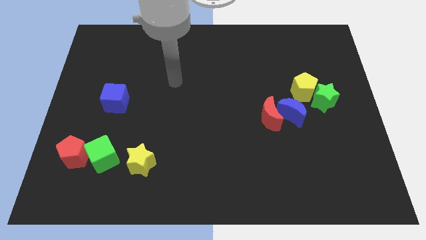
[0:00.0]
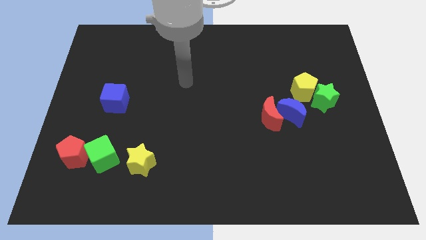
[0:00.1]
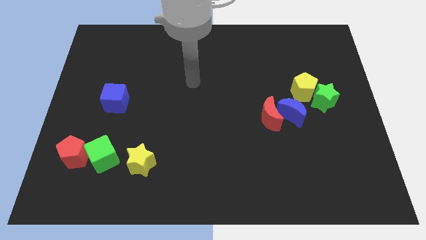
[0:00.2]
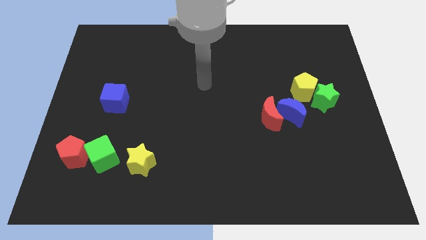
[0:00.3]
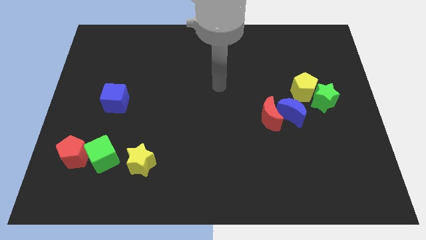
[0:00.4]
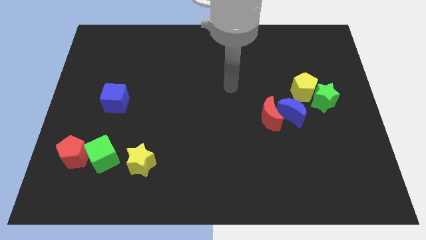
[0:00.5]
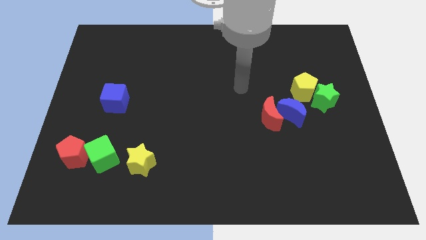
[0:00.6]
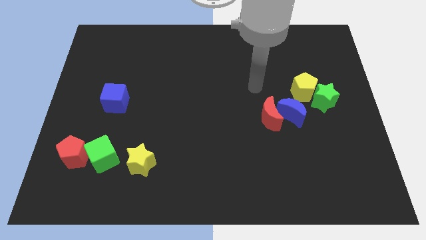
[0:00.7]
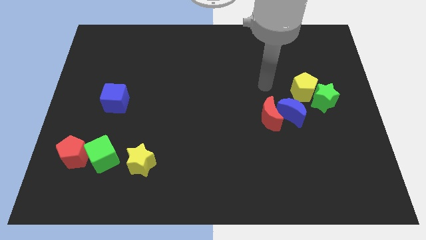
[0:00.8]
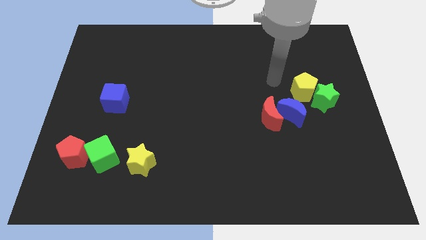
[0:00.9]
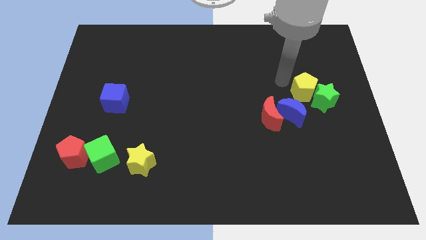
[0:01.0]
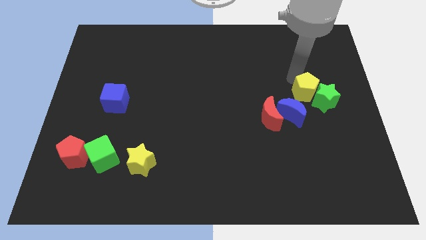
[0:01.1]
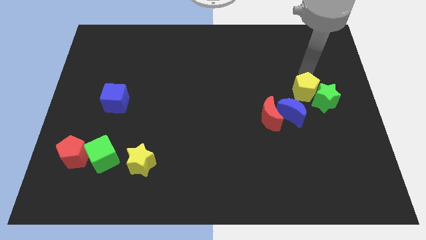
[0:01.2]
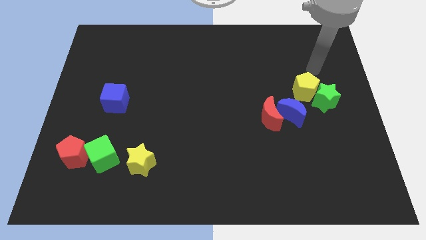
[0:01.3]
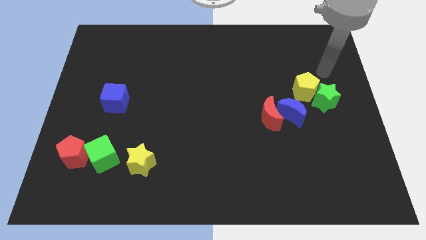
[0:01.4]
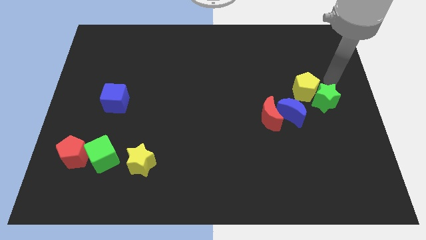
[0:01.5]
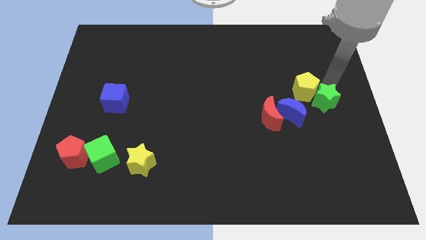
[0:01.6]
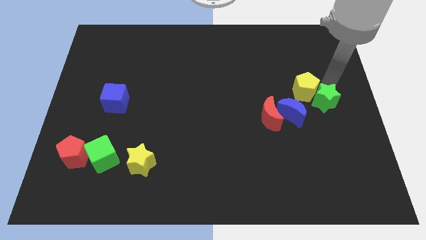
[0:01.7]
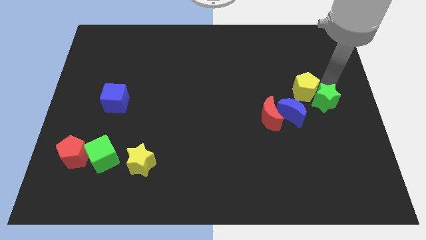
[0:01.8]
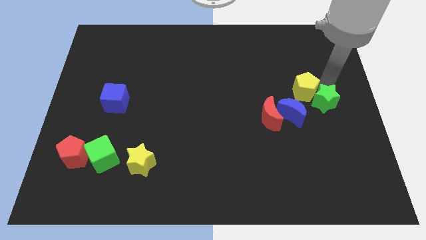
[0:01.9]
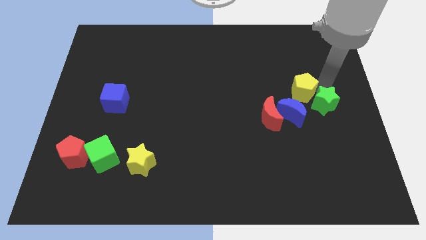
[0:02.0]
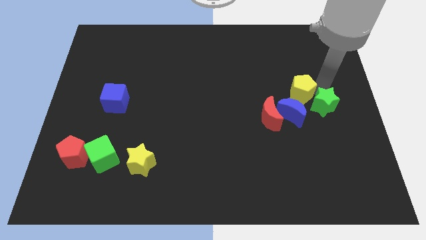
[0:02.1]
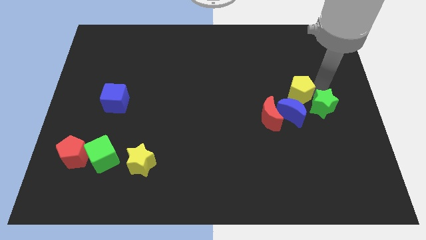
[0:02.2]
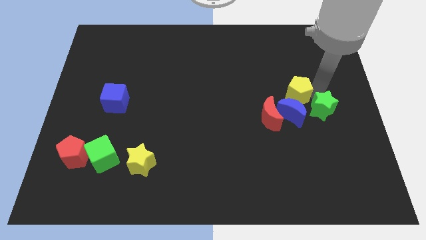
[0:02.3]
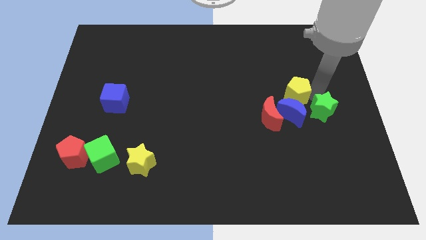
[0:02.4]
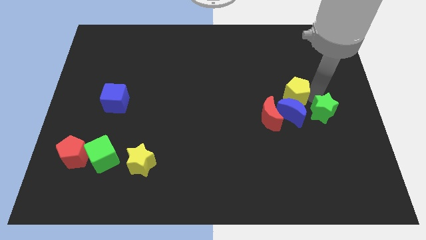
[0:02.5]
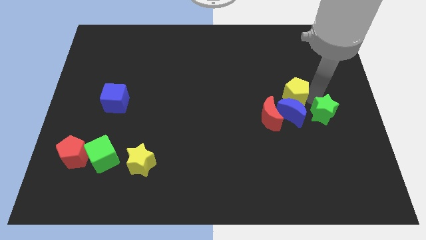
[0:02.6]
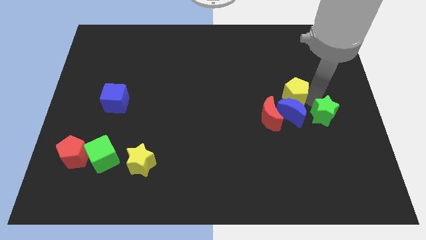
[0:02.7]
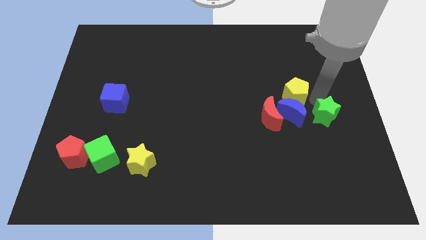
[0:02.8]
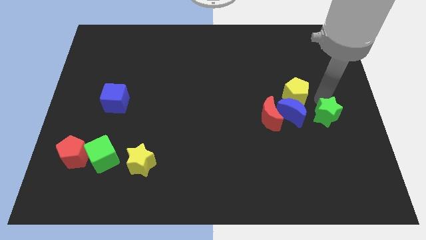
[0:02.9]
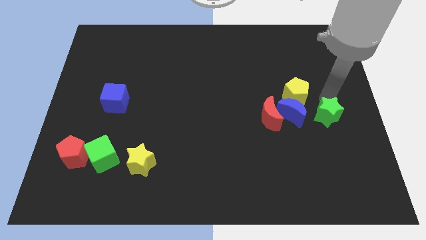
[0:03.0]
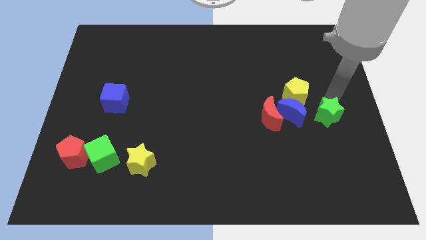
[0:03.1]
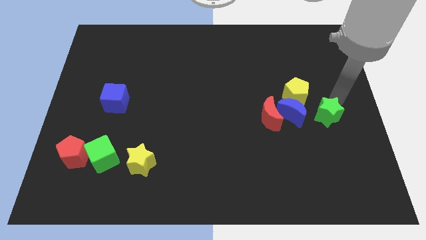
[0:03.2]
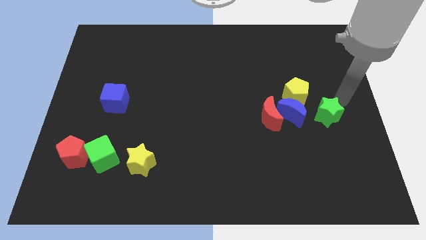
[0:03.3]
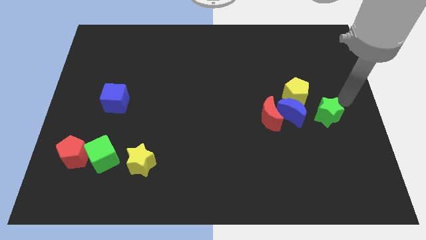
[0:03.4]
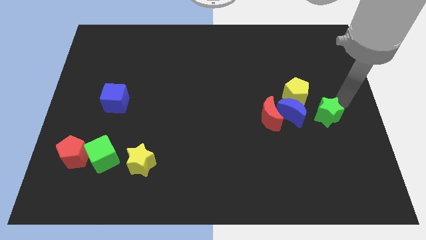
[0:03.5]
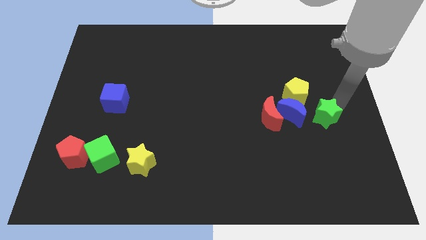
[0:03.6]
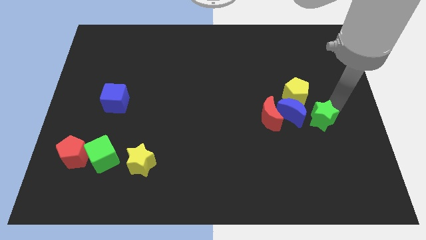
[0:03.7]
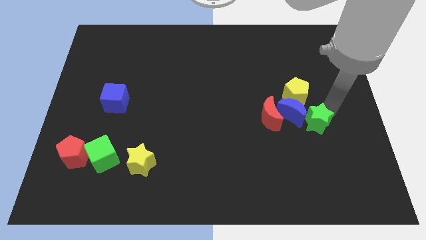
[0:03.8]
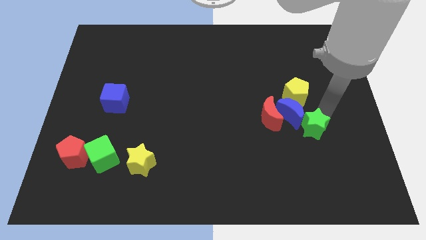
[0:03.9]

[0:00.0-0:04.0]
move the green star a little down and then left

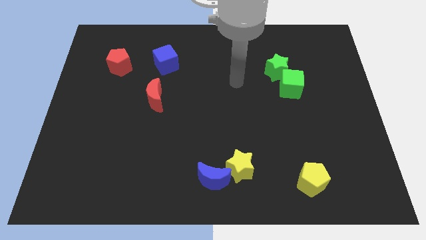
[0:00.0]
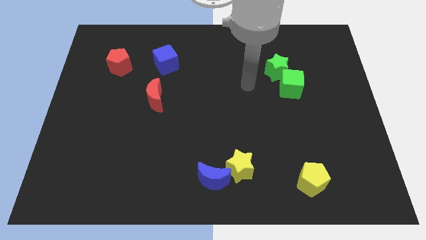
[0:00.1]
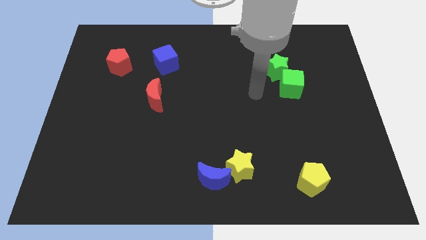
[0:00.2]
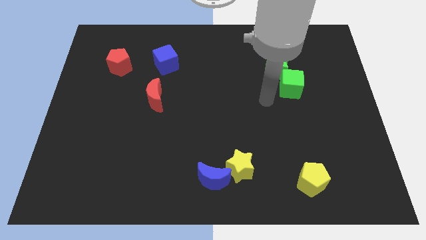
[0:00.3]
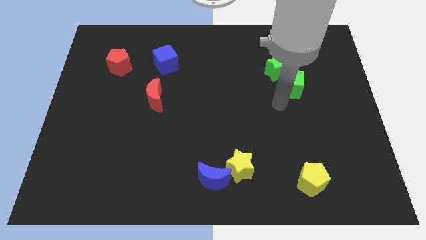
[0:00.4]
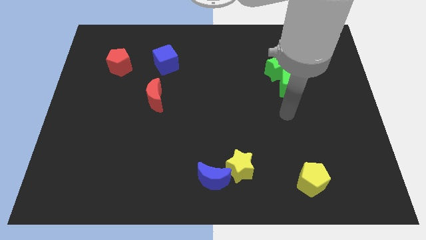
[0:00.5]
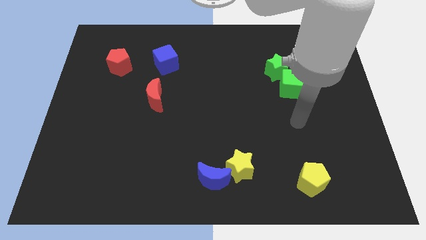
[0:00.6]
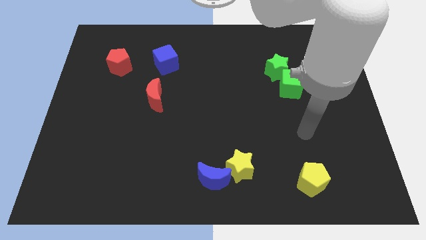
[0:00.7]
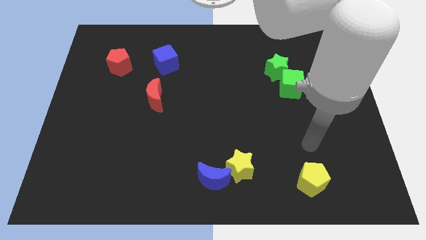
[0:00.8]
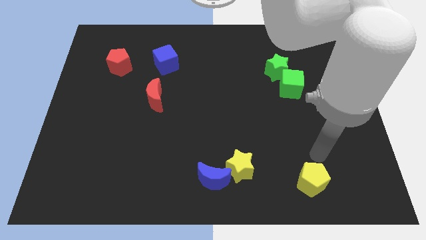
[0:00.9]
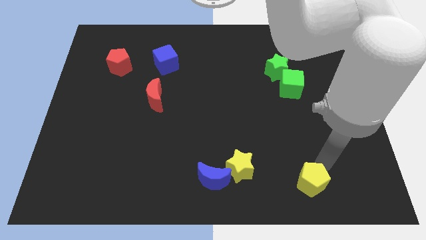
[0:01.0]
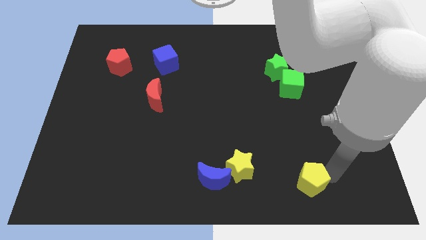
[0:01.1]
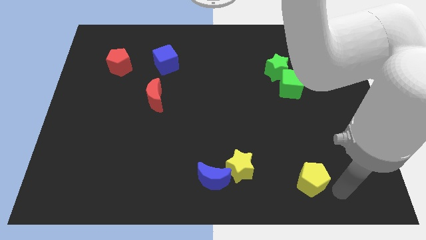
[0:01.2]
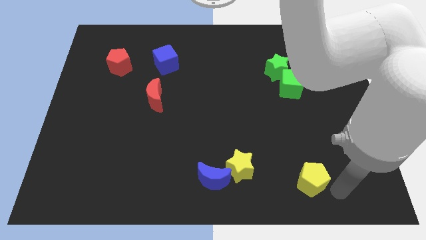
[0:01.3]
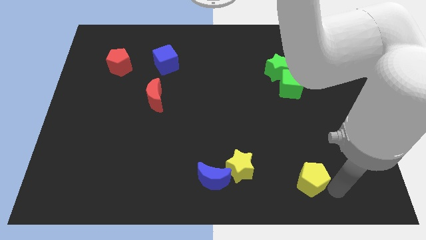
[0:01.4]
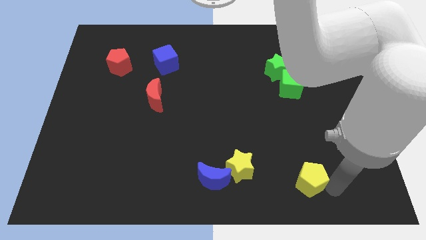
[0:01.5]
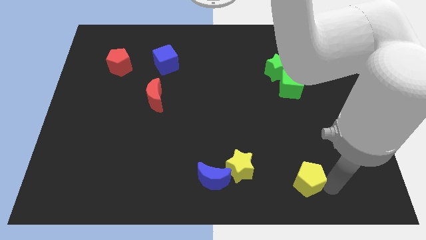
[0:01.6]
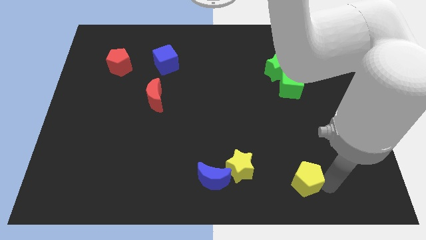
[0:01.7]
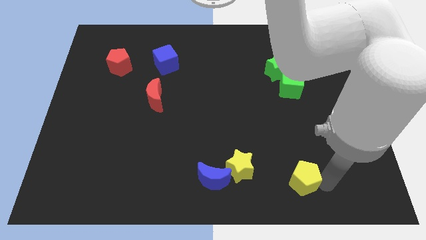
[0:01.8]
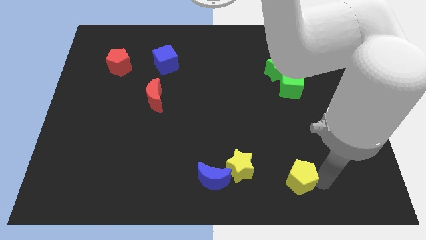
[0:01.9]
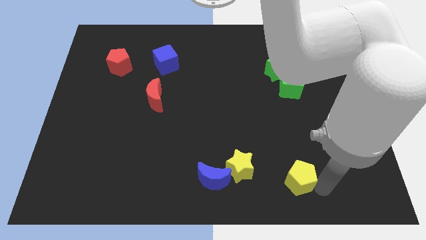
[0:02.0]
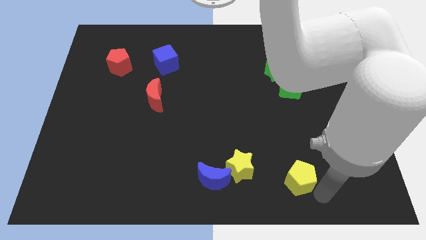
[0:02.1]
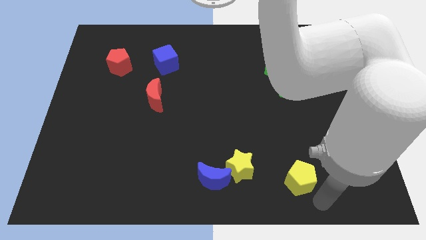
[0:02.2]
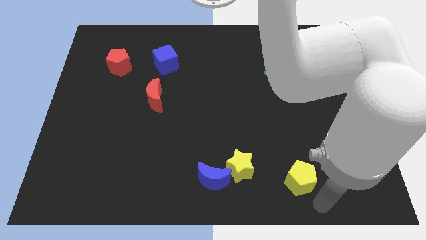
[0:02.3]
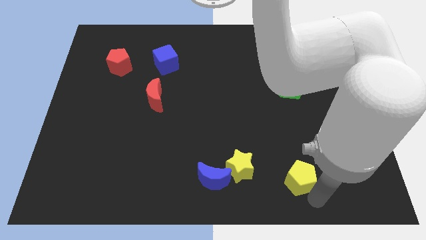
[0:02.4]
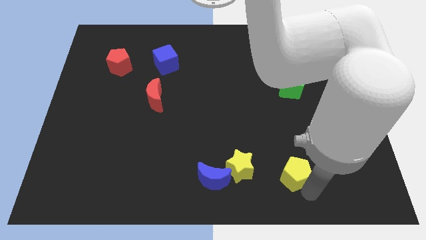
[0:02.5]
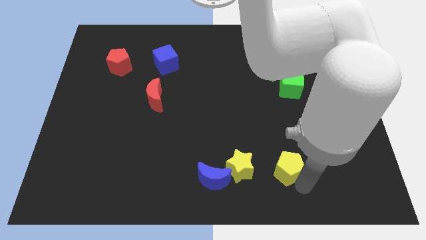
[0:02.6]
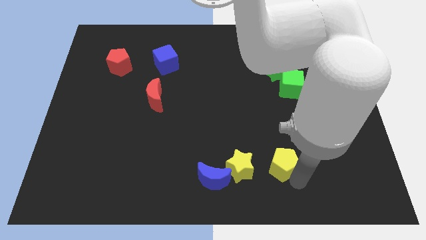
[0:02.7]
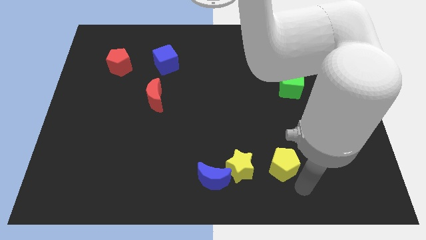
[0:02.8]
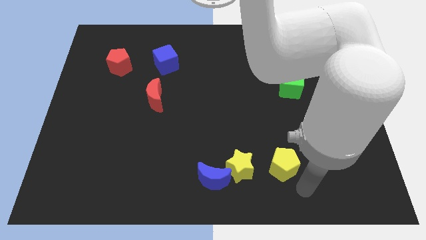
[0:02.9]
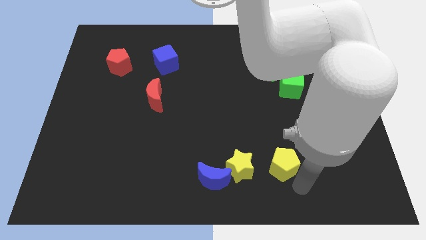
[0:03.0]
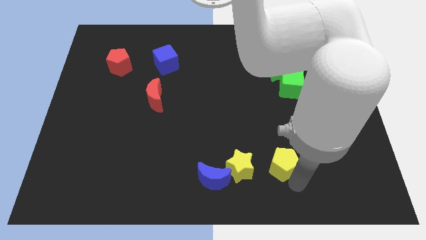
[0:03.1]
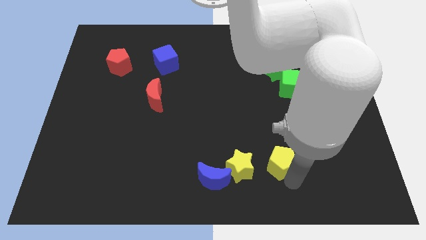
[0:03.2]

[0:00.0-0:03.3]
move the yellow pentagon a bit up and to the left

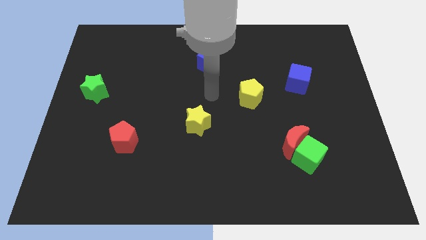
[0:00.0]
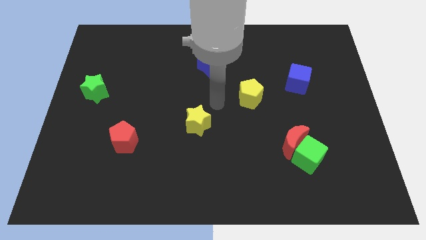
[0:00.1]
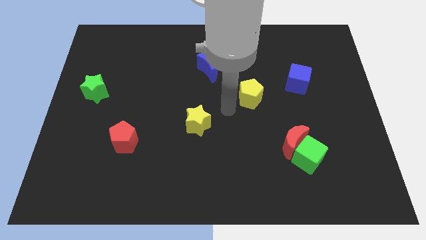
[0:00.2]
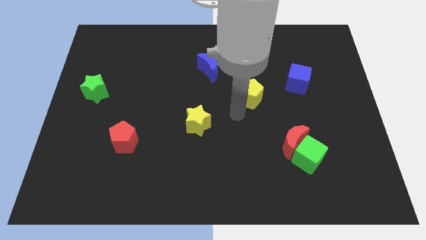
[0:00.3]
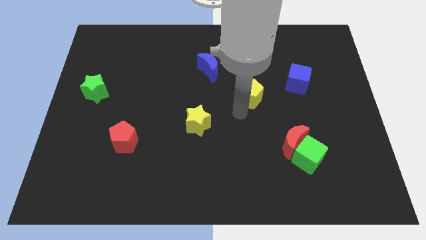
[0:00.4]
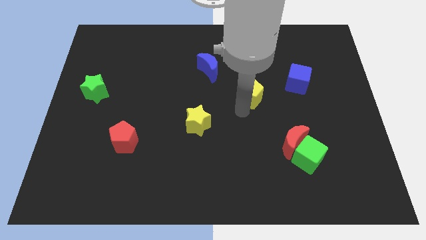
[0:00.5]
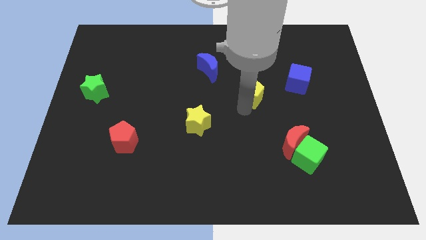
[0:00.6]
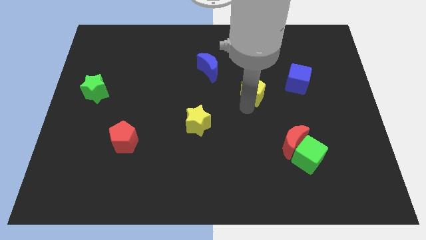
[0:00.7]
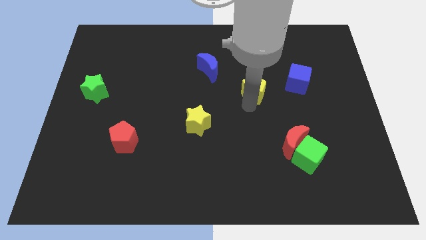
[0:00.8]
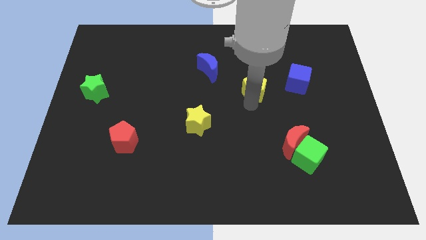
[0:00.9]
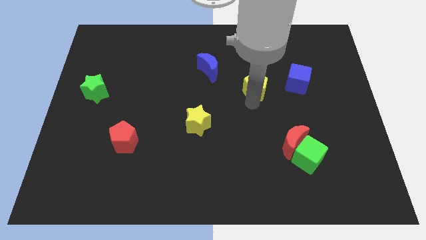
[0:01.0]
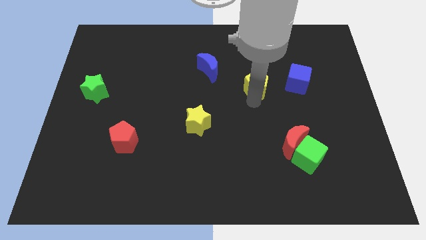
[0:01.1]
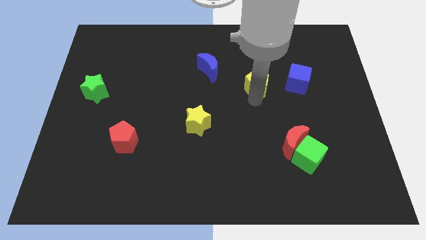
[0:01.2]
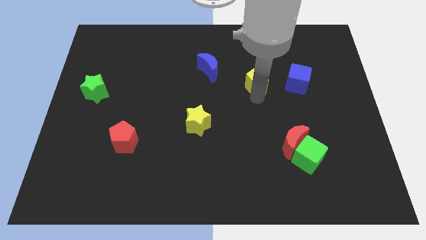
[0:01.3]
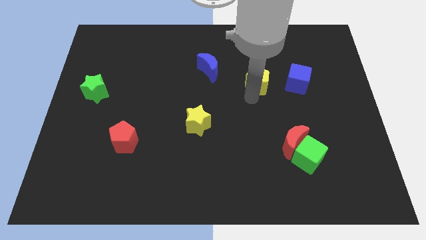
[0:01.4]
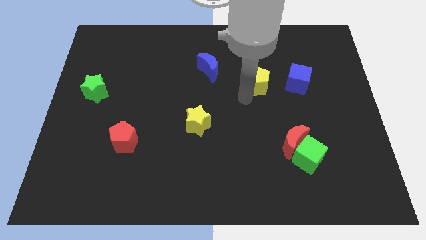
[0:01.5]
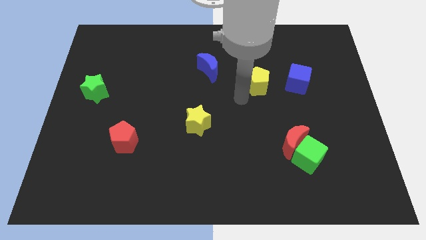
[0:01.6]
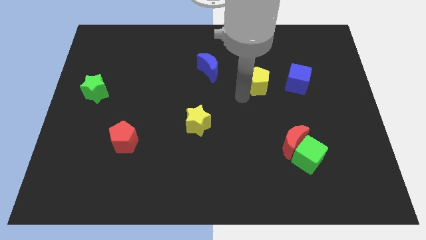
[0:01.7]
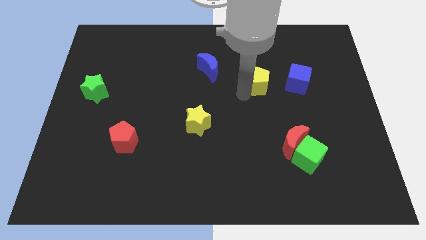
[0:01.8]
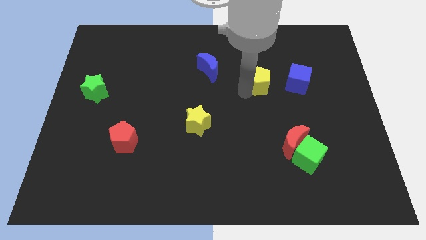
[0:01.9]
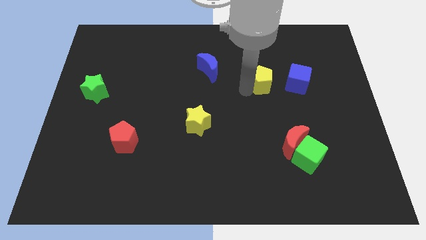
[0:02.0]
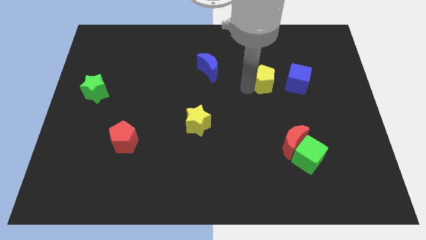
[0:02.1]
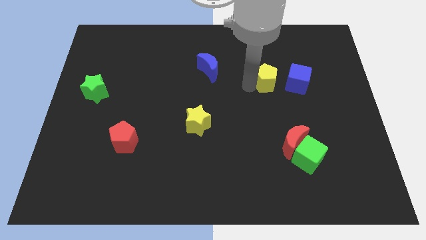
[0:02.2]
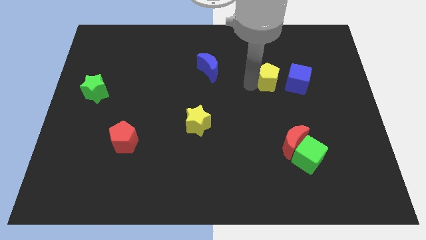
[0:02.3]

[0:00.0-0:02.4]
push the yellow pentagon upwards and right diagonally somewhat
